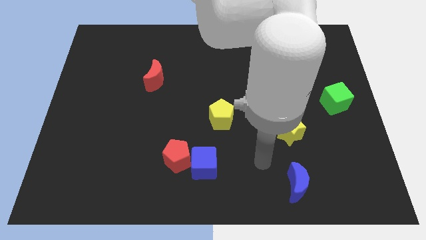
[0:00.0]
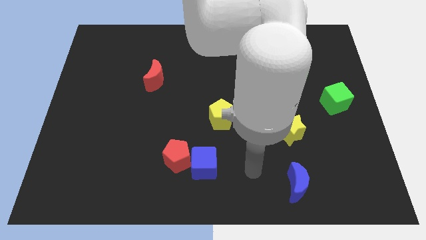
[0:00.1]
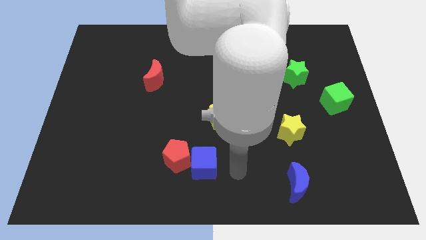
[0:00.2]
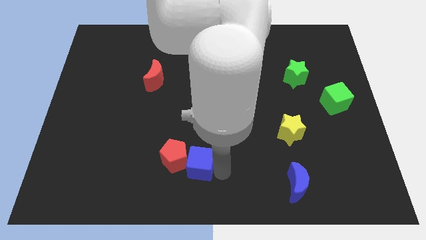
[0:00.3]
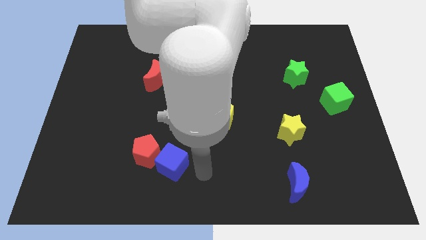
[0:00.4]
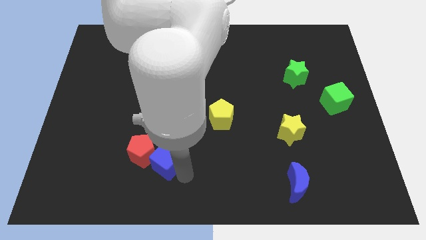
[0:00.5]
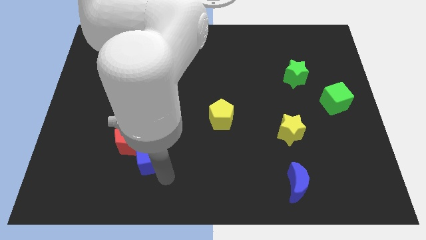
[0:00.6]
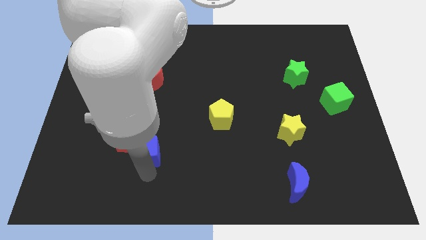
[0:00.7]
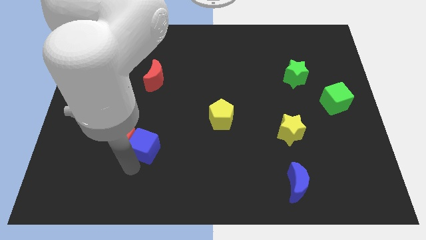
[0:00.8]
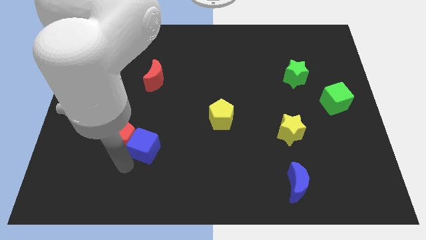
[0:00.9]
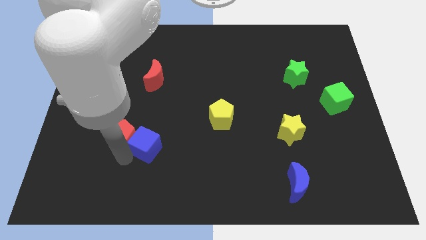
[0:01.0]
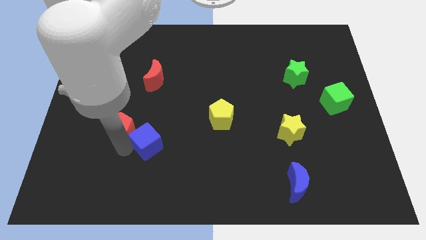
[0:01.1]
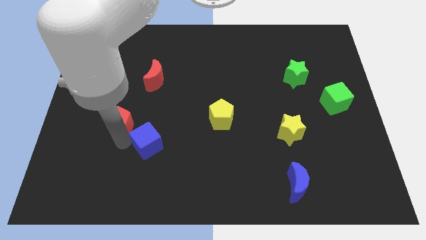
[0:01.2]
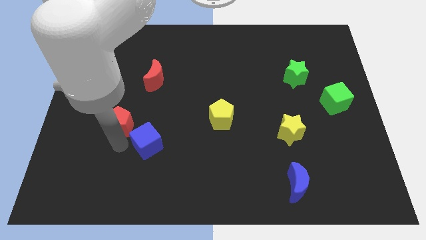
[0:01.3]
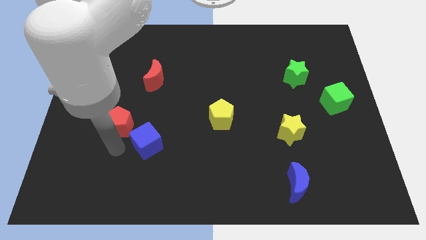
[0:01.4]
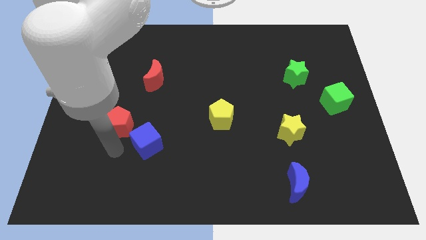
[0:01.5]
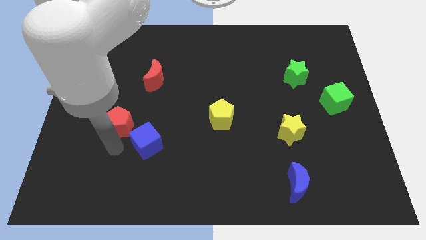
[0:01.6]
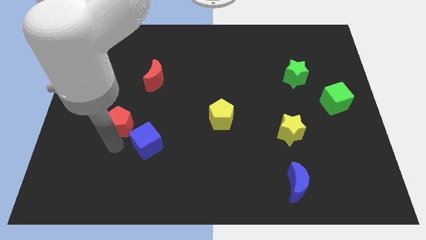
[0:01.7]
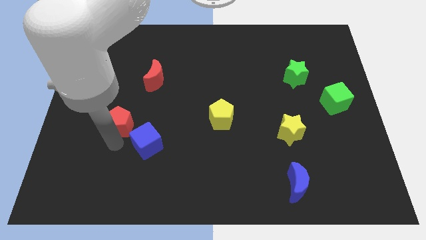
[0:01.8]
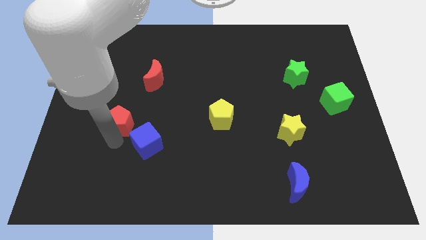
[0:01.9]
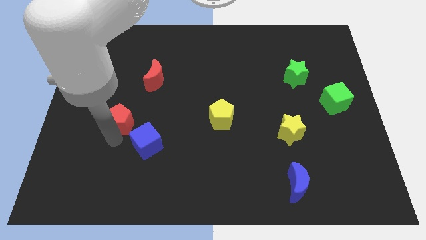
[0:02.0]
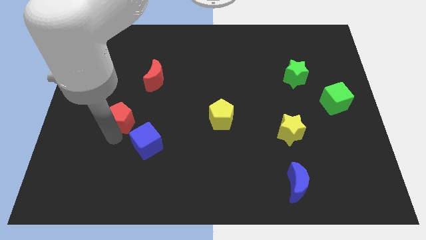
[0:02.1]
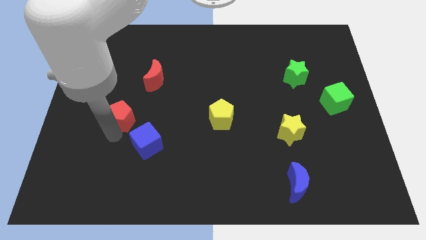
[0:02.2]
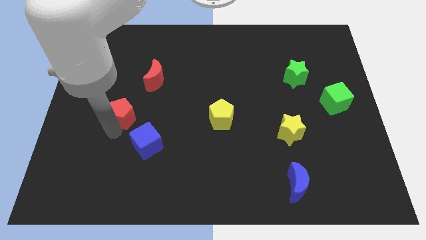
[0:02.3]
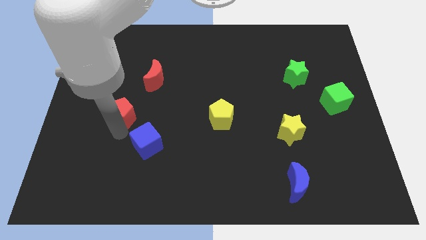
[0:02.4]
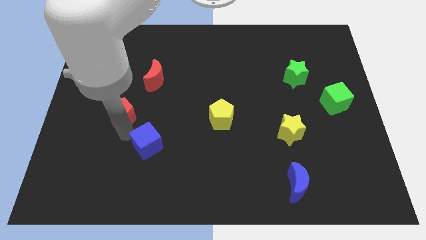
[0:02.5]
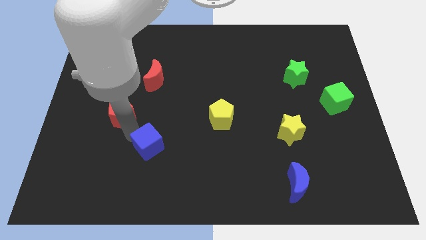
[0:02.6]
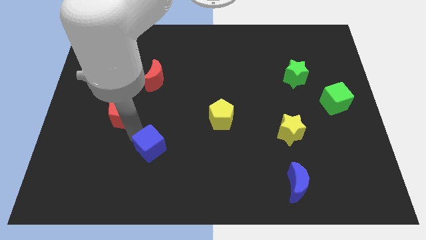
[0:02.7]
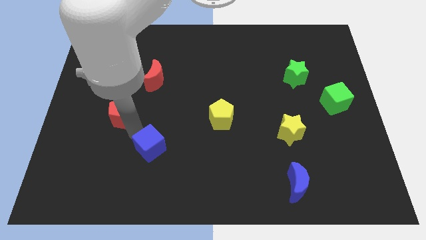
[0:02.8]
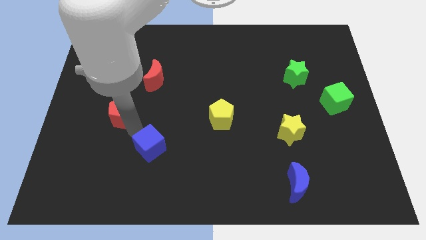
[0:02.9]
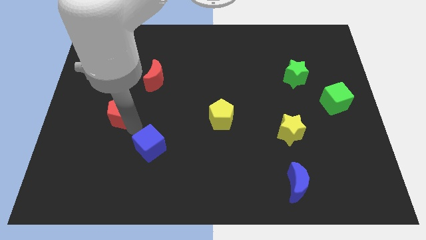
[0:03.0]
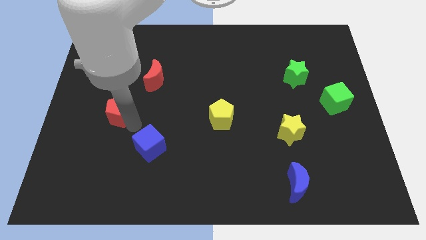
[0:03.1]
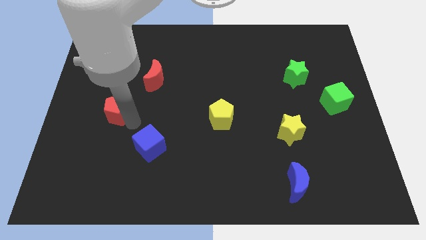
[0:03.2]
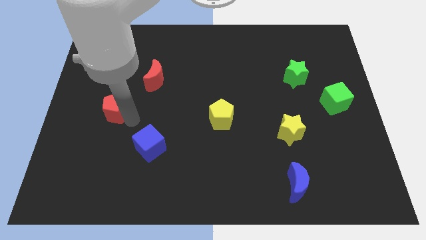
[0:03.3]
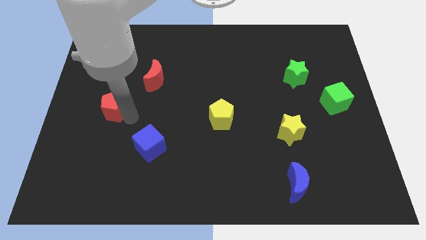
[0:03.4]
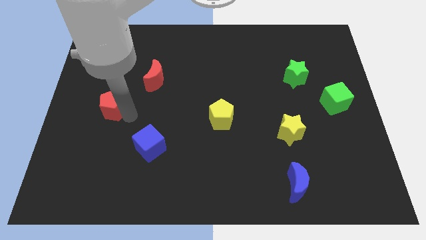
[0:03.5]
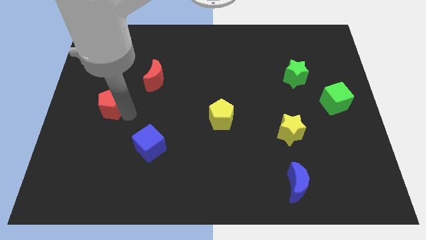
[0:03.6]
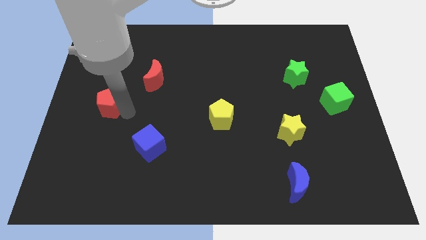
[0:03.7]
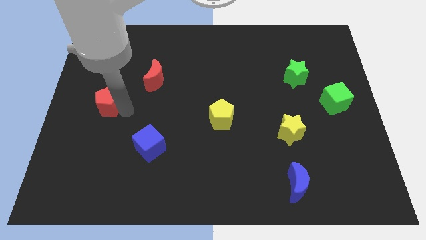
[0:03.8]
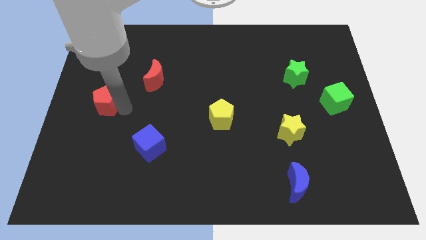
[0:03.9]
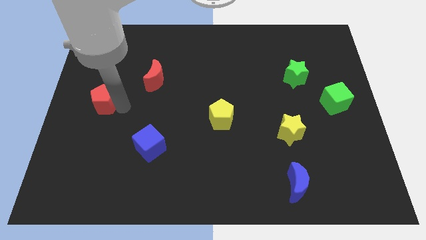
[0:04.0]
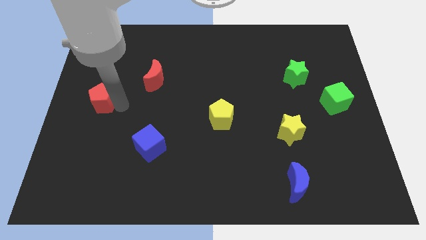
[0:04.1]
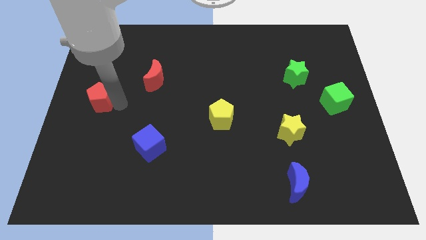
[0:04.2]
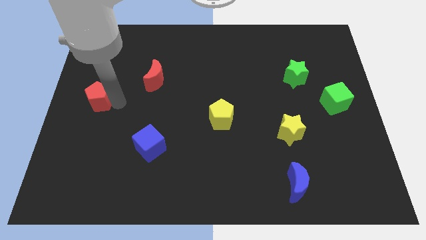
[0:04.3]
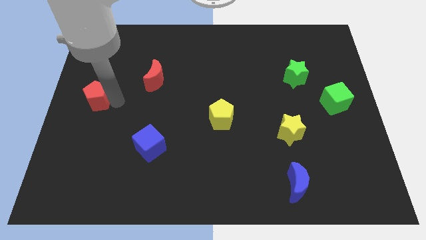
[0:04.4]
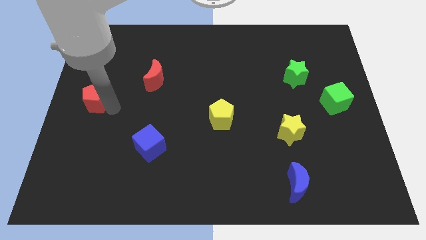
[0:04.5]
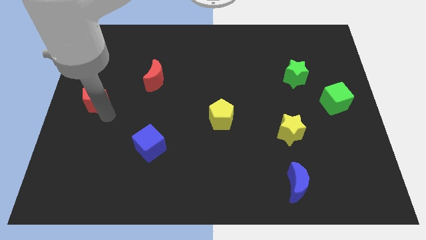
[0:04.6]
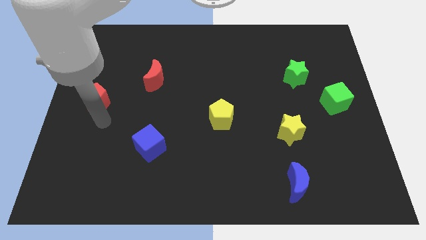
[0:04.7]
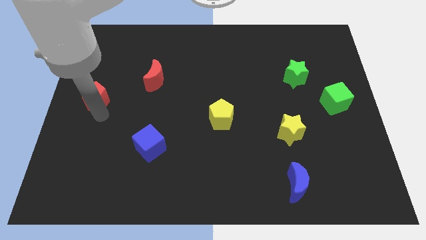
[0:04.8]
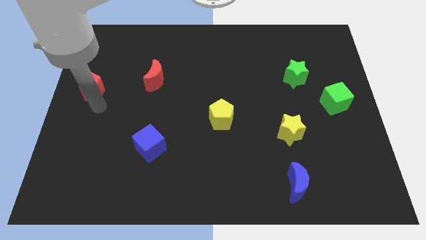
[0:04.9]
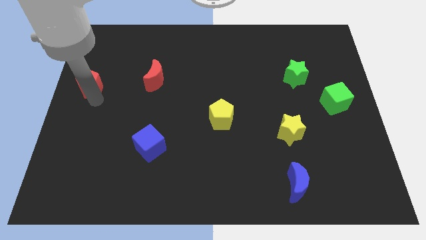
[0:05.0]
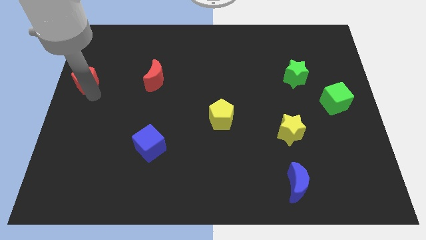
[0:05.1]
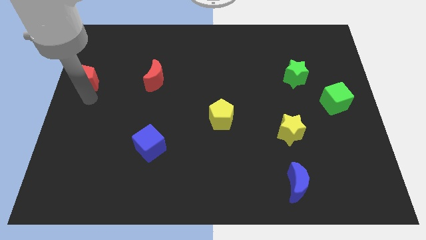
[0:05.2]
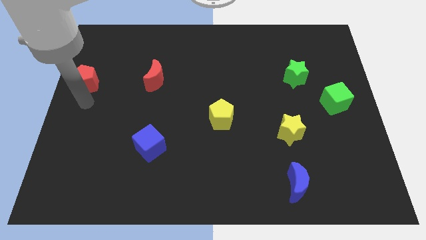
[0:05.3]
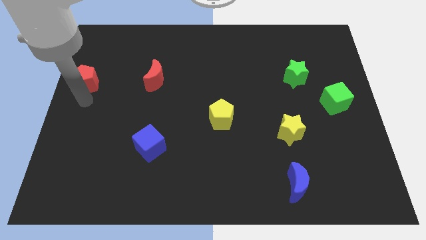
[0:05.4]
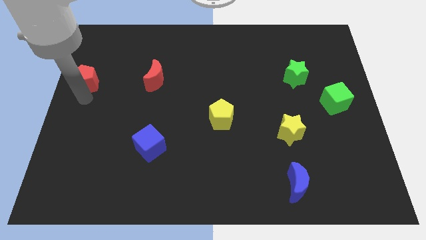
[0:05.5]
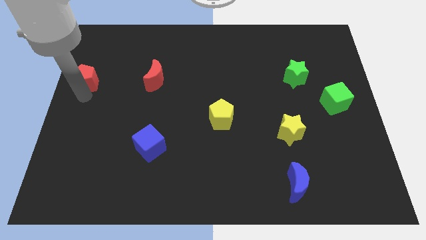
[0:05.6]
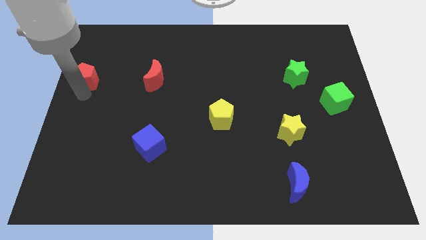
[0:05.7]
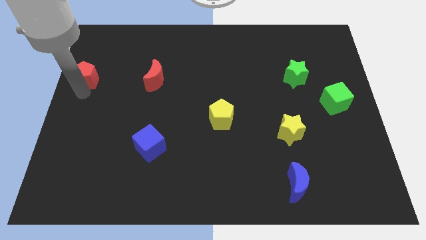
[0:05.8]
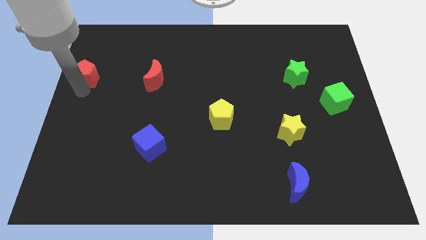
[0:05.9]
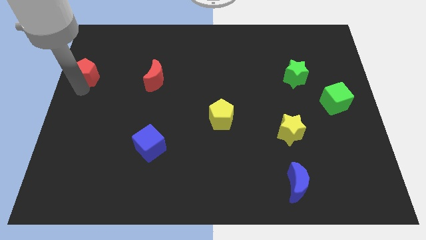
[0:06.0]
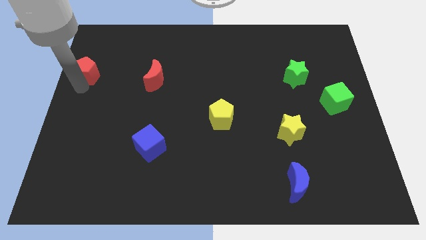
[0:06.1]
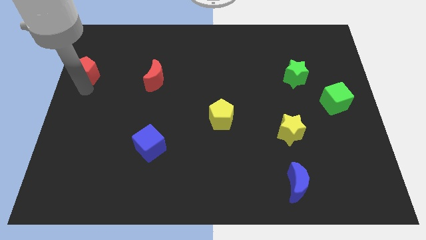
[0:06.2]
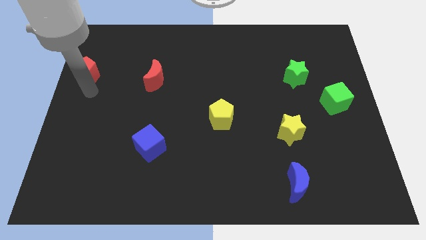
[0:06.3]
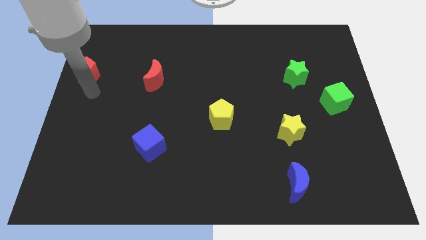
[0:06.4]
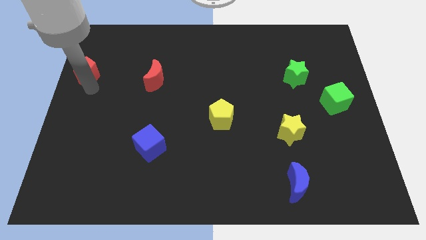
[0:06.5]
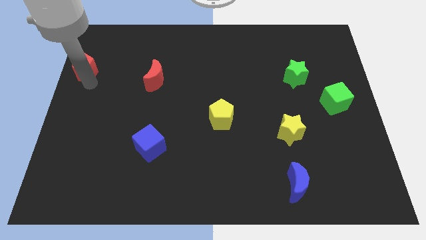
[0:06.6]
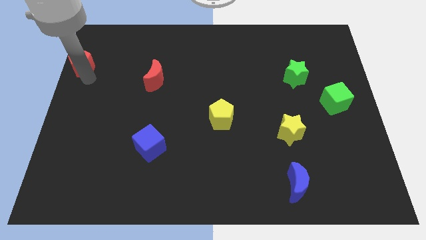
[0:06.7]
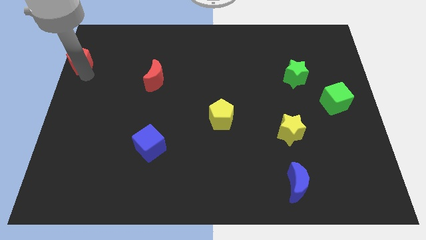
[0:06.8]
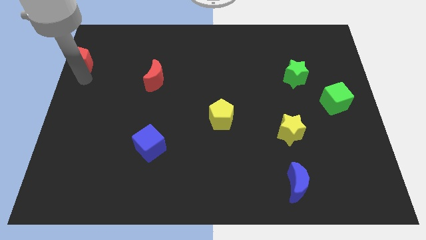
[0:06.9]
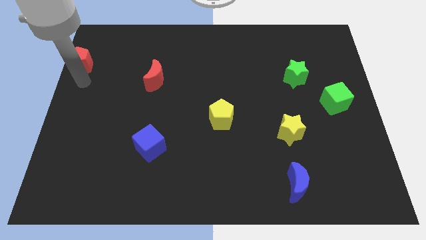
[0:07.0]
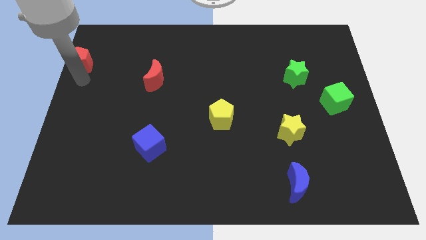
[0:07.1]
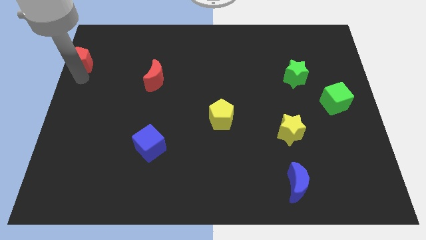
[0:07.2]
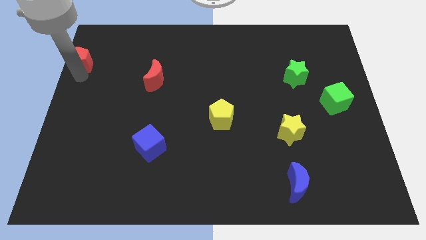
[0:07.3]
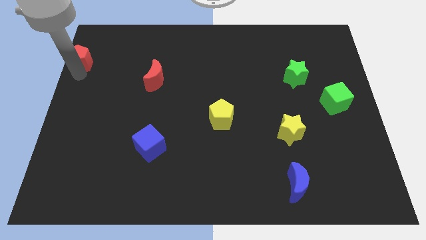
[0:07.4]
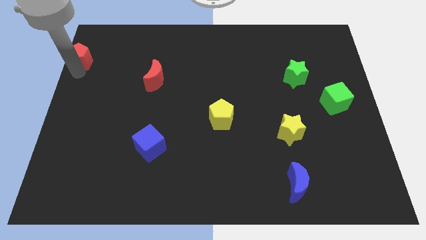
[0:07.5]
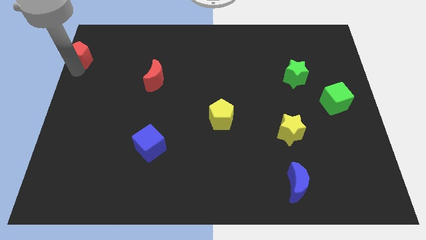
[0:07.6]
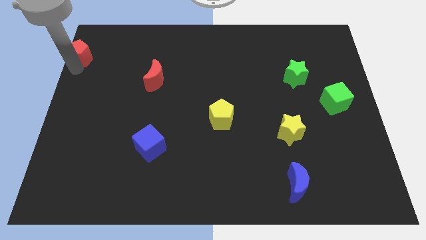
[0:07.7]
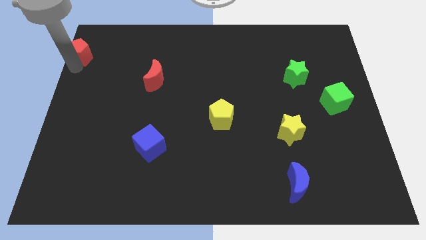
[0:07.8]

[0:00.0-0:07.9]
push the red pentagon to the top left corner
